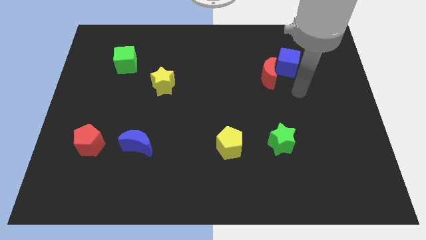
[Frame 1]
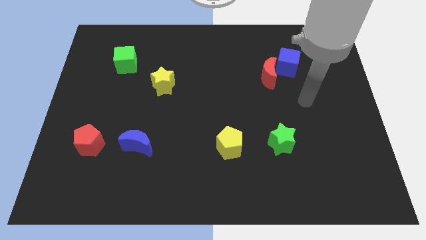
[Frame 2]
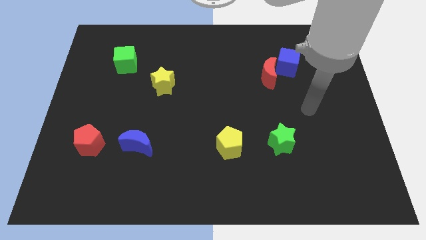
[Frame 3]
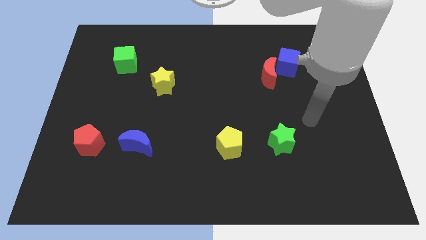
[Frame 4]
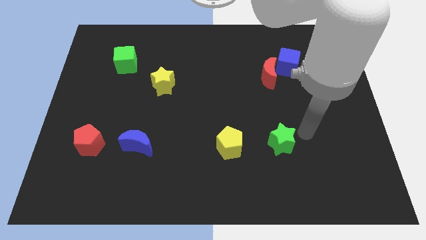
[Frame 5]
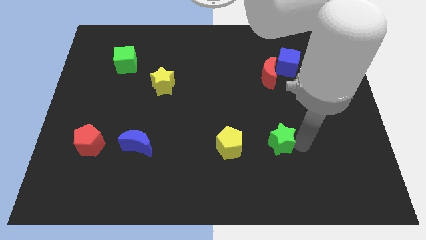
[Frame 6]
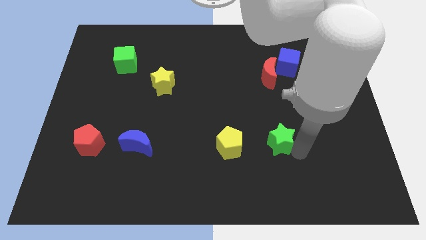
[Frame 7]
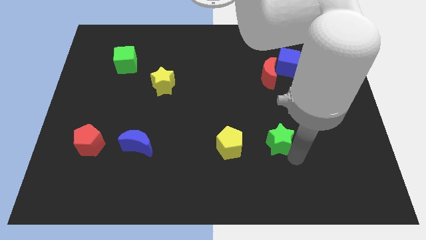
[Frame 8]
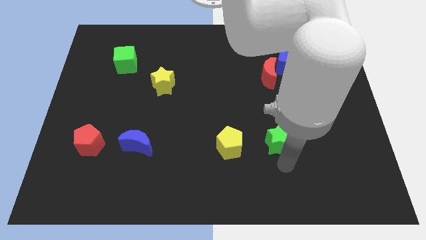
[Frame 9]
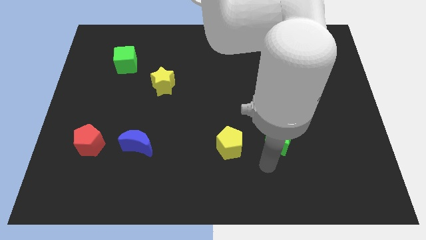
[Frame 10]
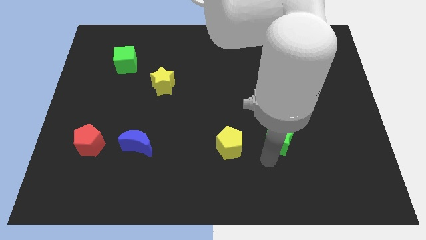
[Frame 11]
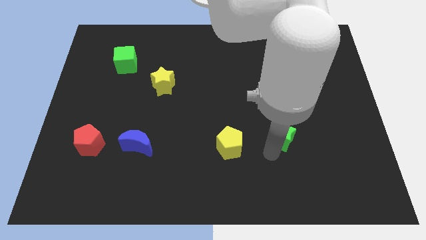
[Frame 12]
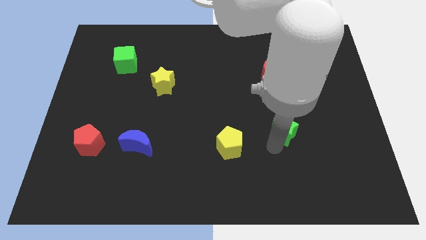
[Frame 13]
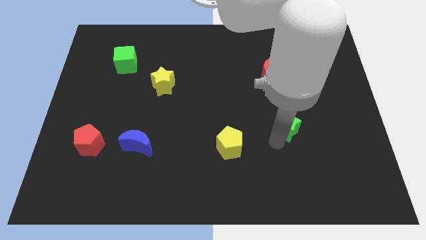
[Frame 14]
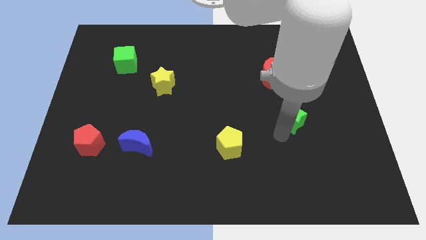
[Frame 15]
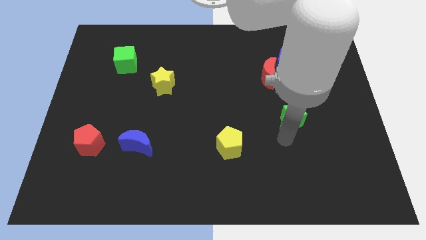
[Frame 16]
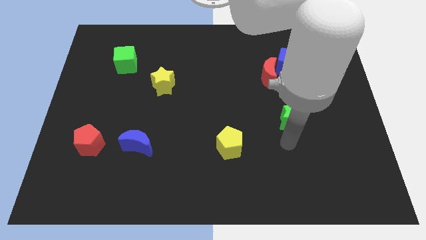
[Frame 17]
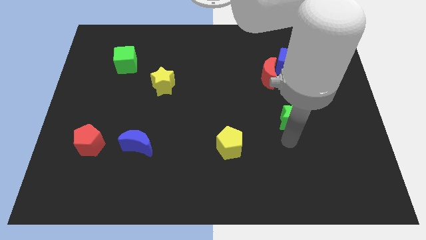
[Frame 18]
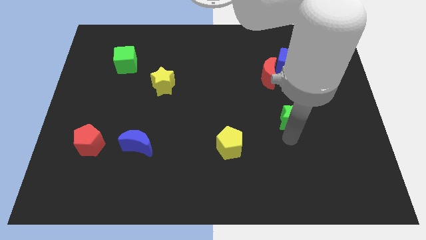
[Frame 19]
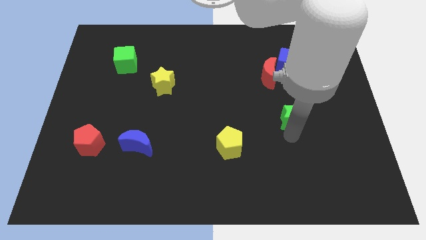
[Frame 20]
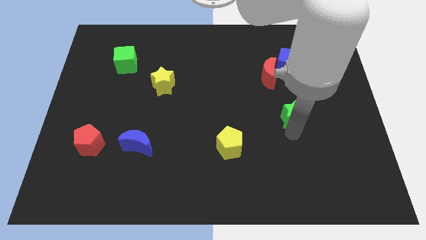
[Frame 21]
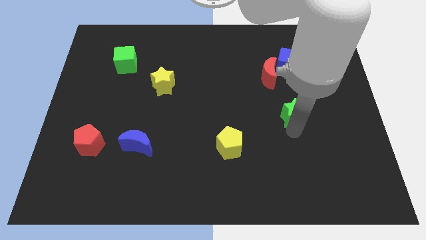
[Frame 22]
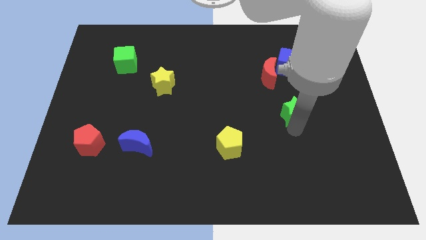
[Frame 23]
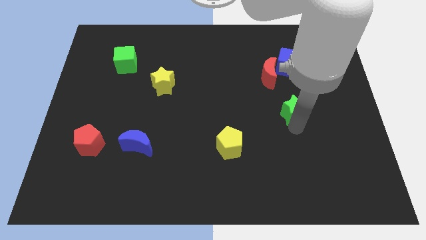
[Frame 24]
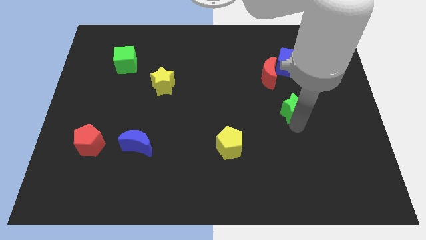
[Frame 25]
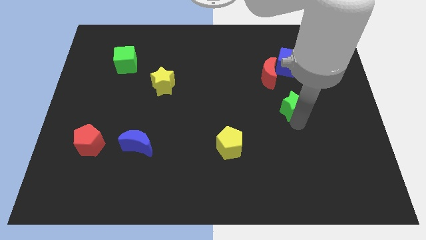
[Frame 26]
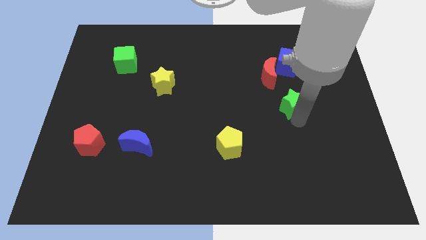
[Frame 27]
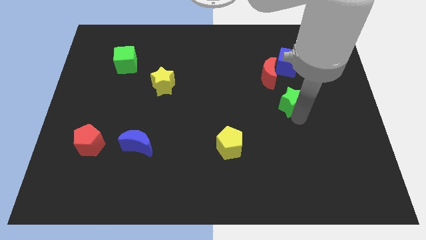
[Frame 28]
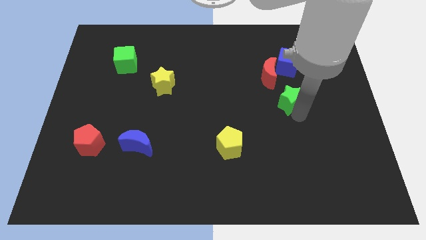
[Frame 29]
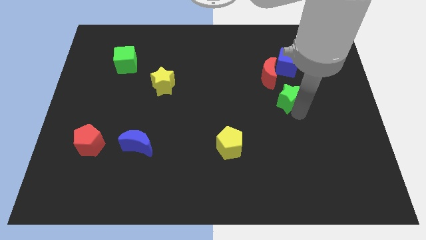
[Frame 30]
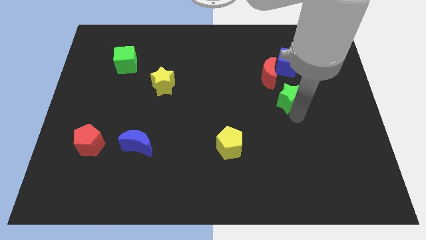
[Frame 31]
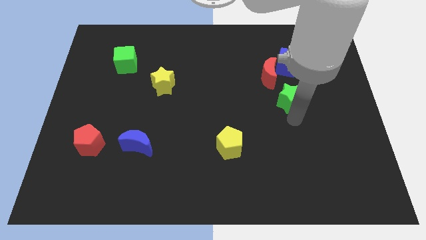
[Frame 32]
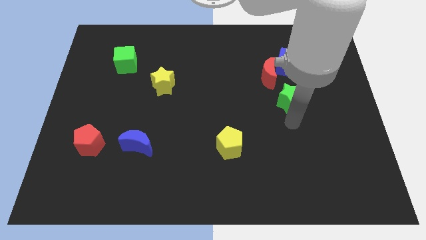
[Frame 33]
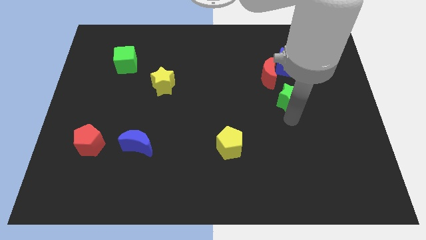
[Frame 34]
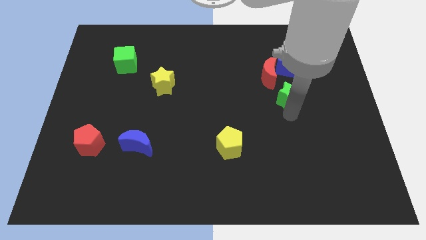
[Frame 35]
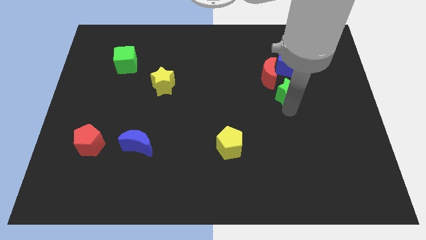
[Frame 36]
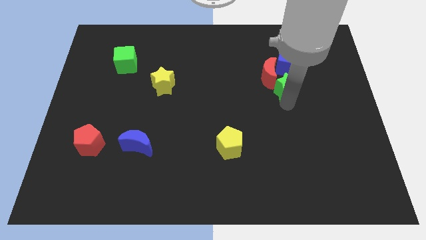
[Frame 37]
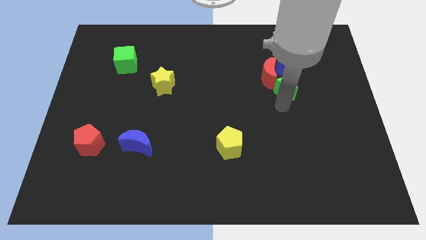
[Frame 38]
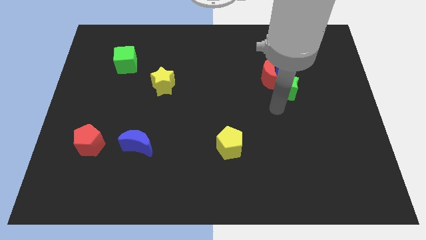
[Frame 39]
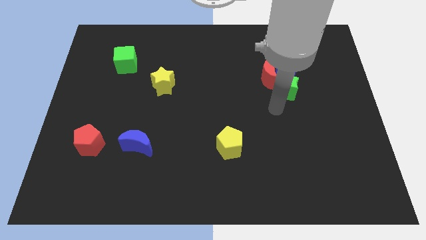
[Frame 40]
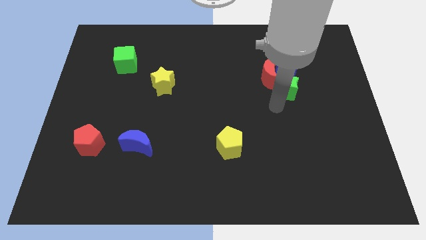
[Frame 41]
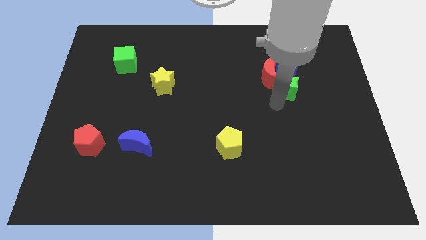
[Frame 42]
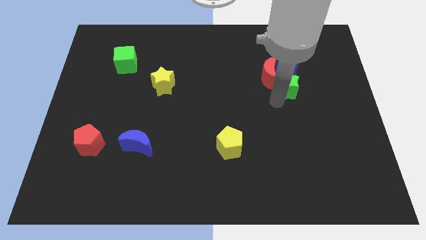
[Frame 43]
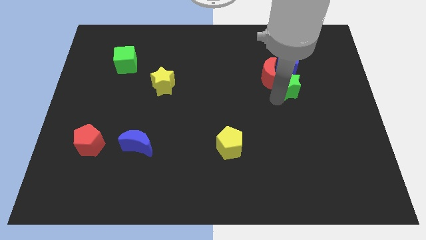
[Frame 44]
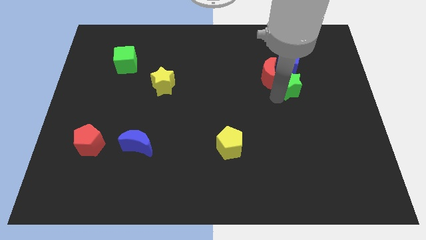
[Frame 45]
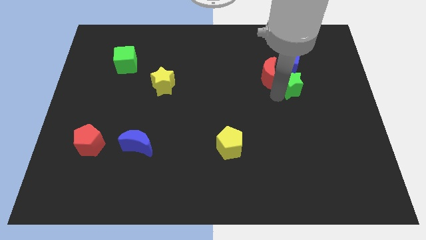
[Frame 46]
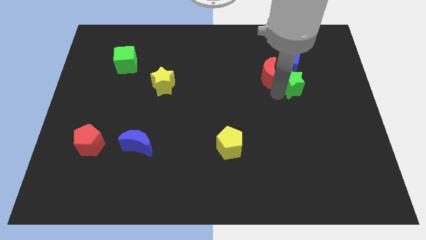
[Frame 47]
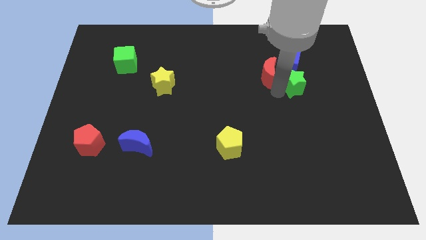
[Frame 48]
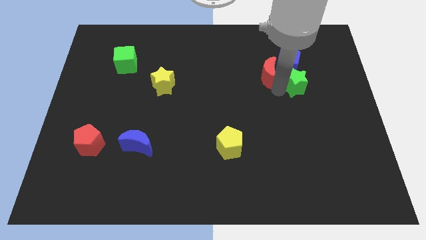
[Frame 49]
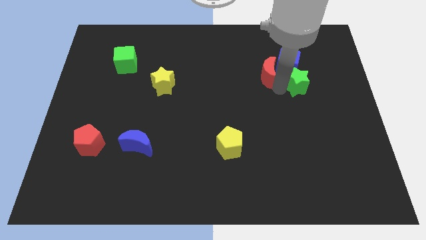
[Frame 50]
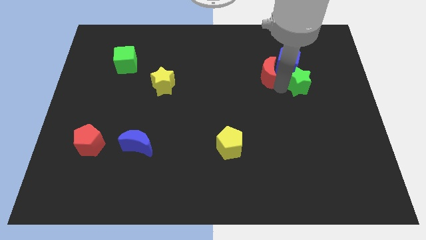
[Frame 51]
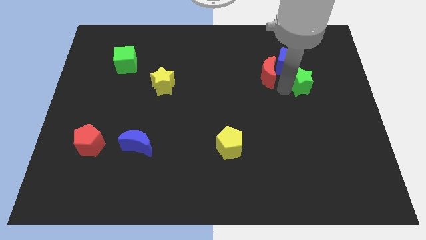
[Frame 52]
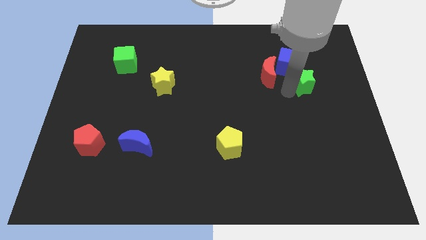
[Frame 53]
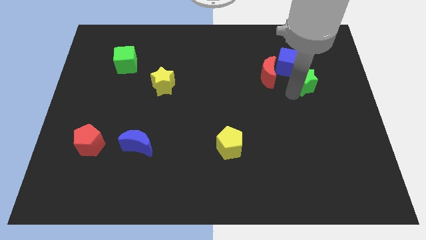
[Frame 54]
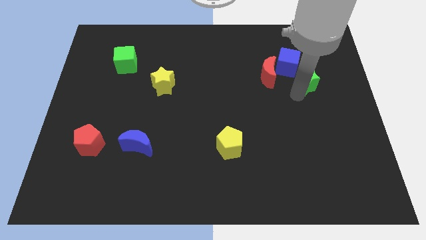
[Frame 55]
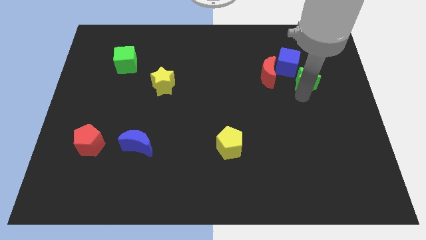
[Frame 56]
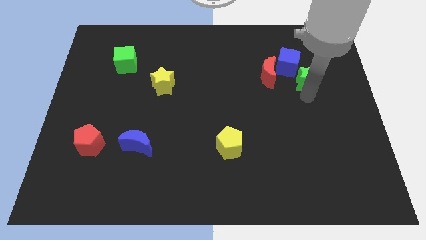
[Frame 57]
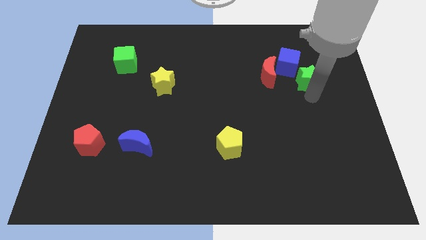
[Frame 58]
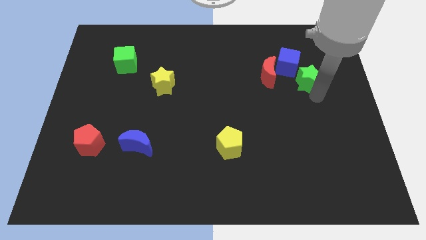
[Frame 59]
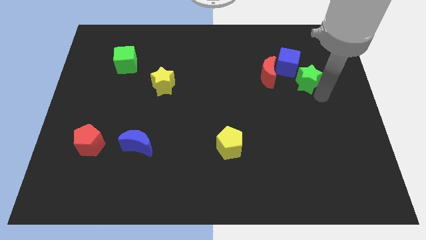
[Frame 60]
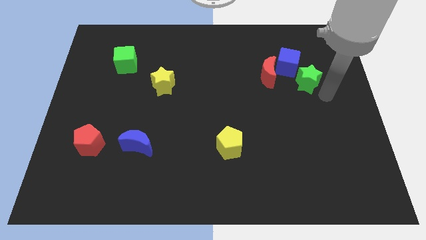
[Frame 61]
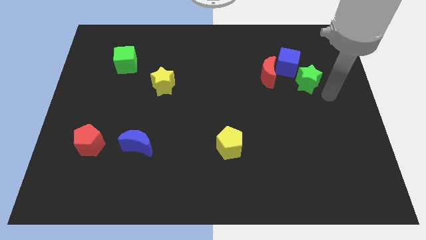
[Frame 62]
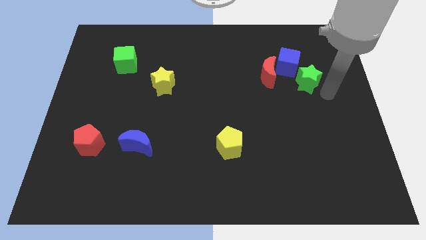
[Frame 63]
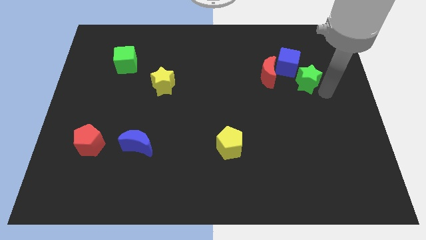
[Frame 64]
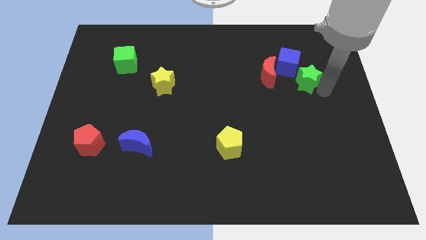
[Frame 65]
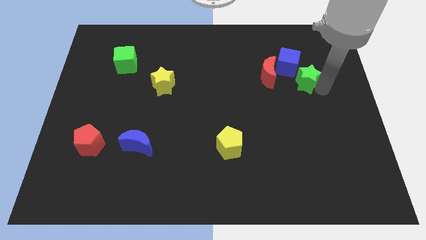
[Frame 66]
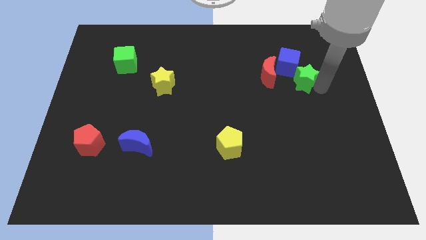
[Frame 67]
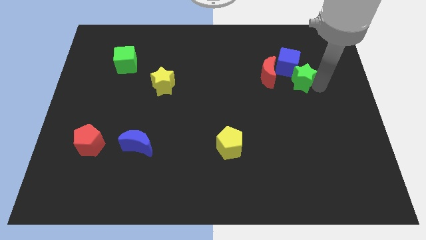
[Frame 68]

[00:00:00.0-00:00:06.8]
put the green star close to the blue cube

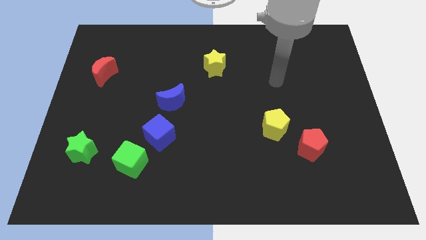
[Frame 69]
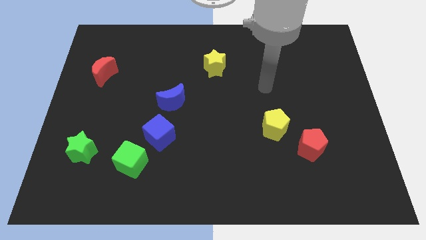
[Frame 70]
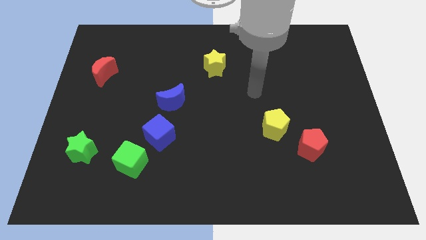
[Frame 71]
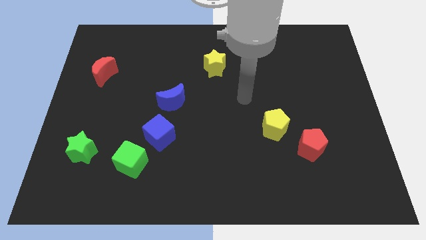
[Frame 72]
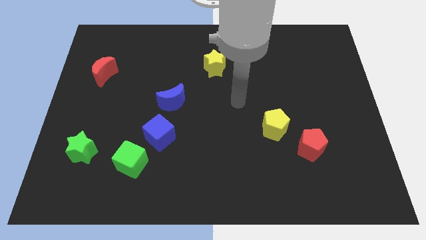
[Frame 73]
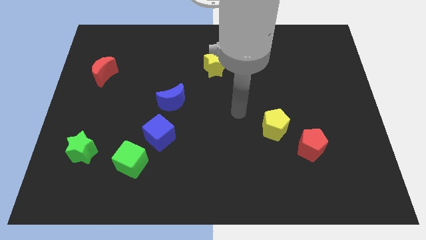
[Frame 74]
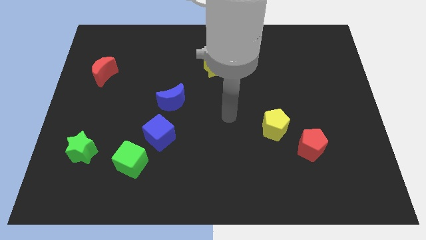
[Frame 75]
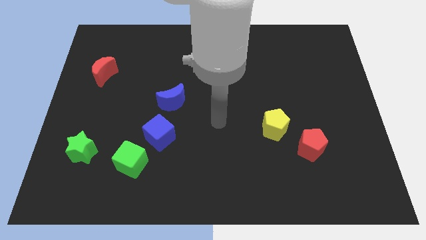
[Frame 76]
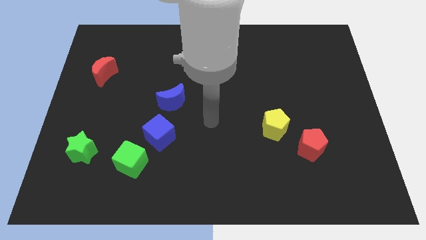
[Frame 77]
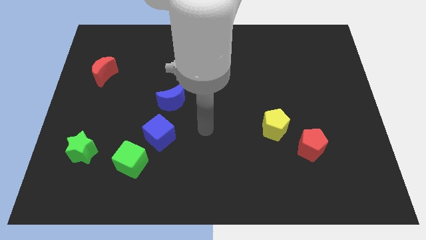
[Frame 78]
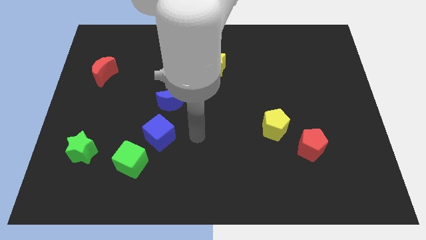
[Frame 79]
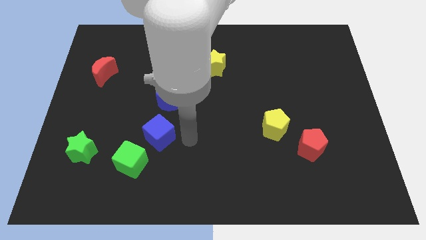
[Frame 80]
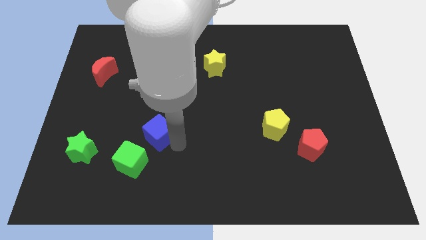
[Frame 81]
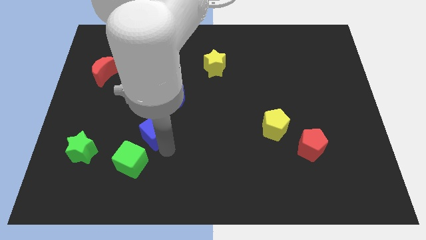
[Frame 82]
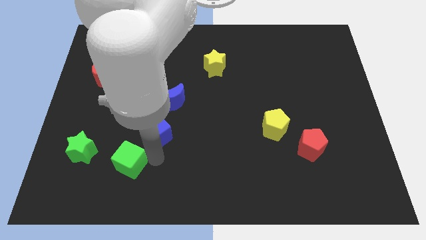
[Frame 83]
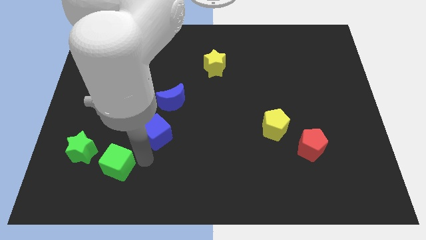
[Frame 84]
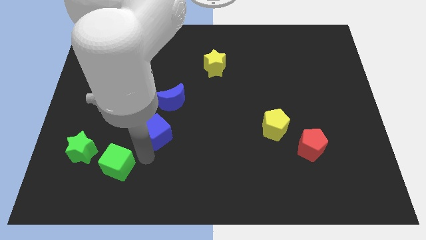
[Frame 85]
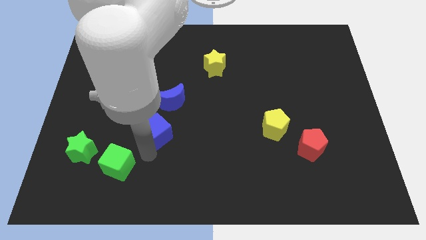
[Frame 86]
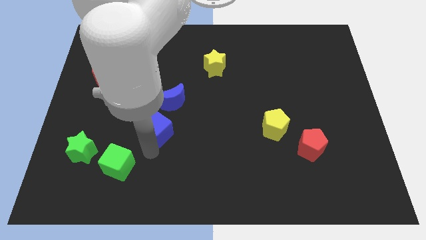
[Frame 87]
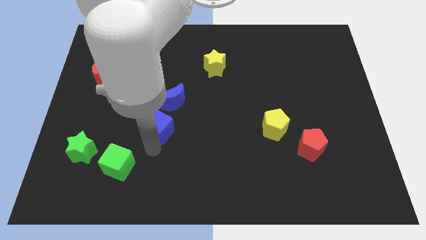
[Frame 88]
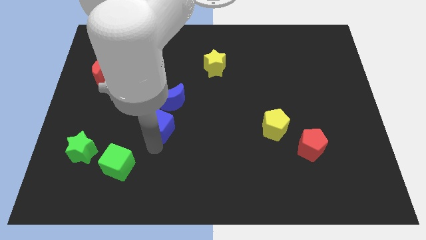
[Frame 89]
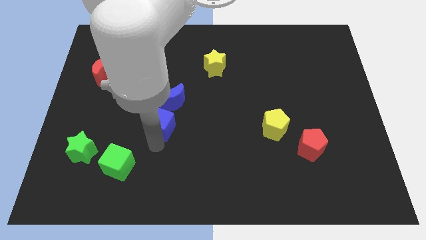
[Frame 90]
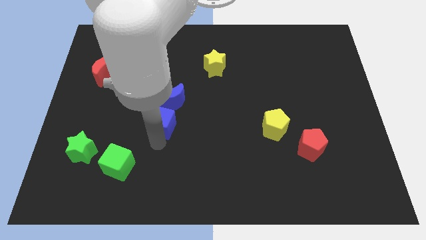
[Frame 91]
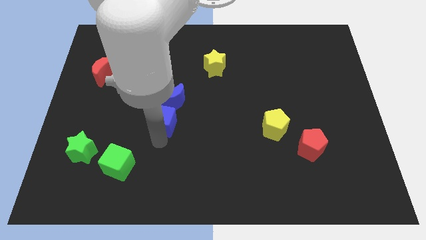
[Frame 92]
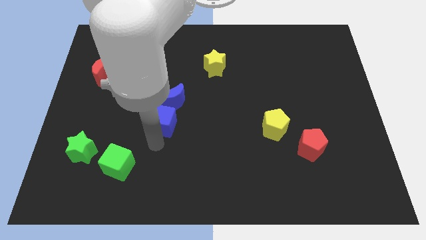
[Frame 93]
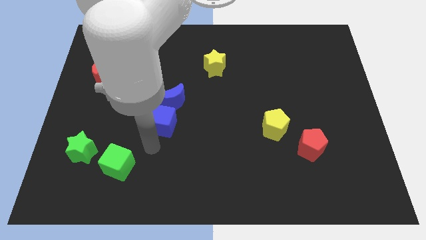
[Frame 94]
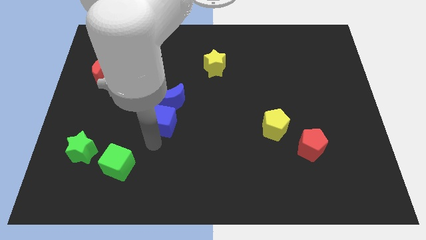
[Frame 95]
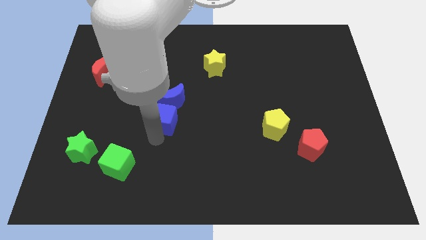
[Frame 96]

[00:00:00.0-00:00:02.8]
put the blue cube next to the blue moon
